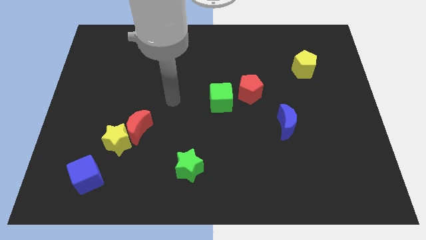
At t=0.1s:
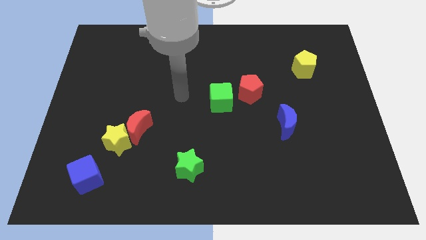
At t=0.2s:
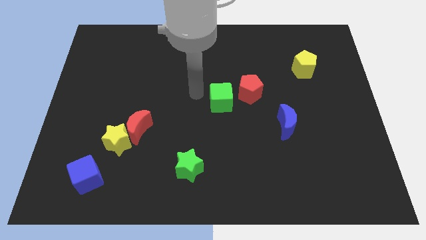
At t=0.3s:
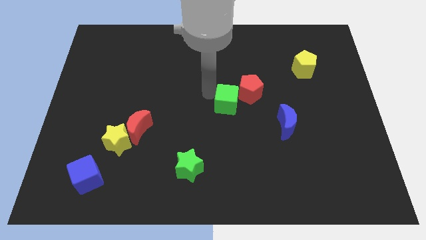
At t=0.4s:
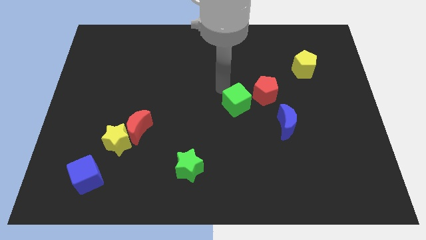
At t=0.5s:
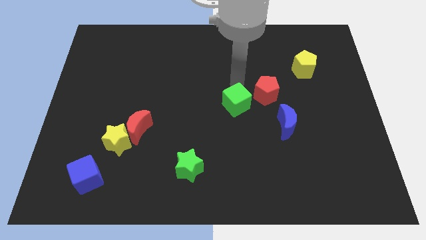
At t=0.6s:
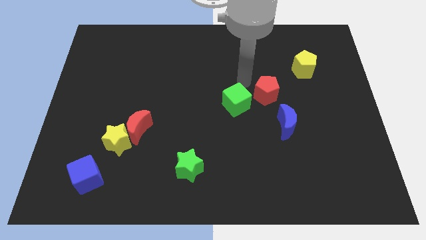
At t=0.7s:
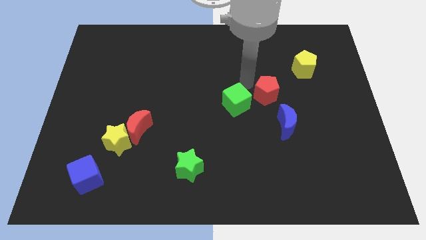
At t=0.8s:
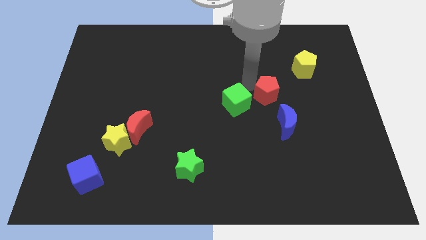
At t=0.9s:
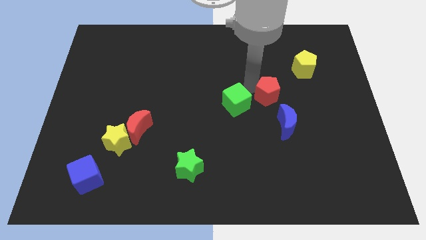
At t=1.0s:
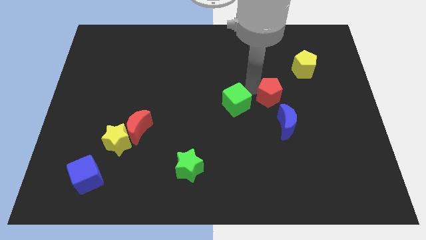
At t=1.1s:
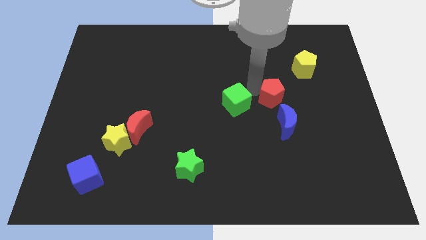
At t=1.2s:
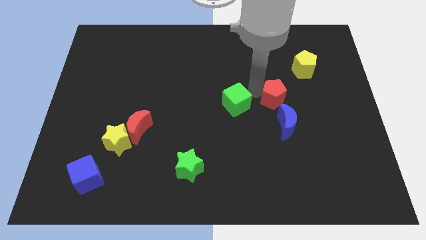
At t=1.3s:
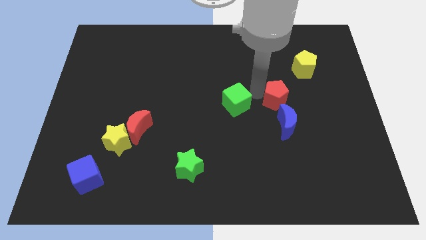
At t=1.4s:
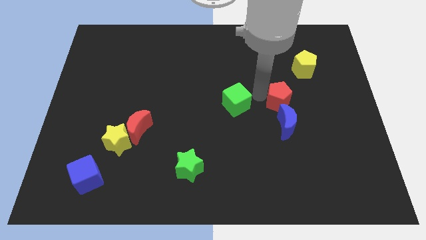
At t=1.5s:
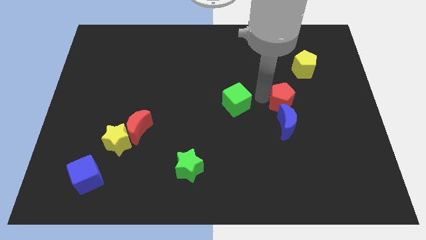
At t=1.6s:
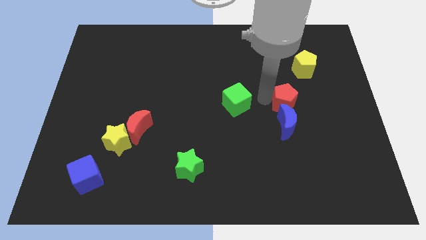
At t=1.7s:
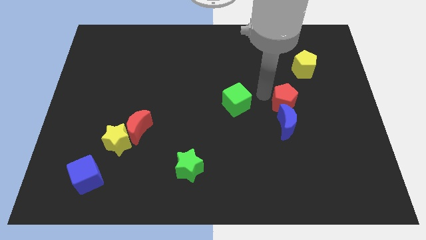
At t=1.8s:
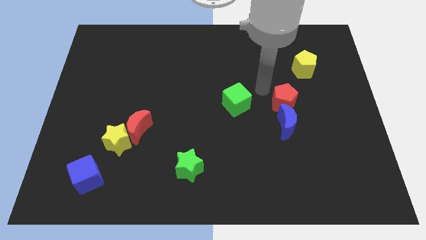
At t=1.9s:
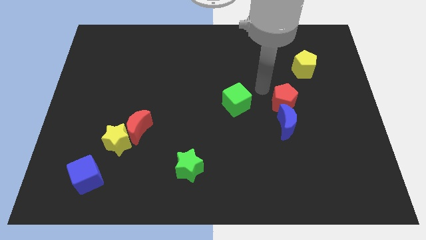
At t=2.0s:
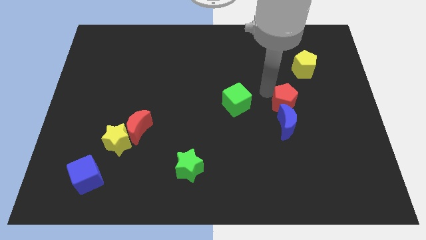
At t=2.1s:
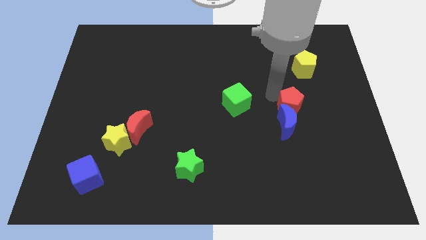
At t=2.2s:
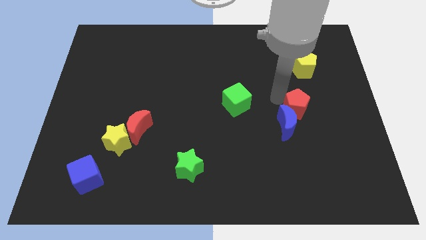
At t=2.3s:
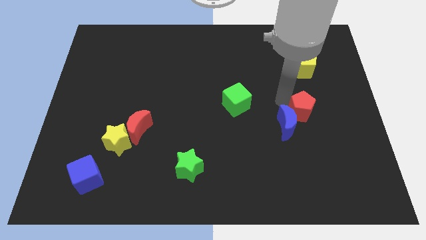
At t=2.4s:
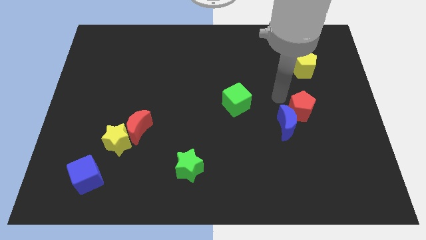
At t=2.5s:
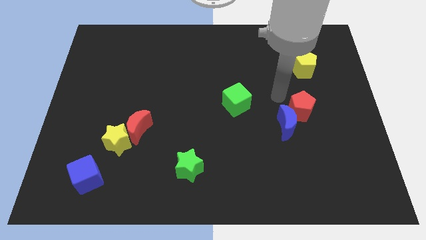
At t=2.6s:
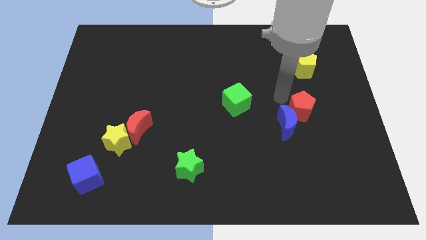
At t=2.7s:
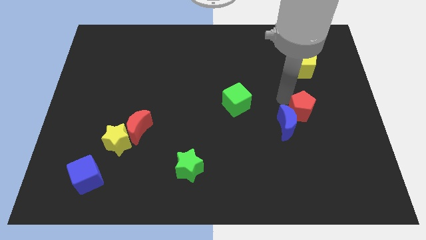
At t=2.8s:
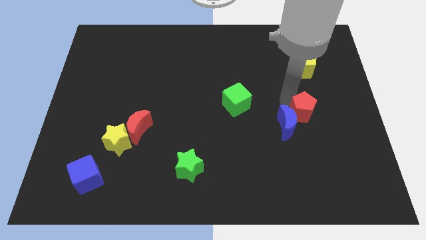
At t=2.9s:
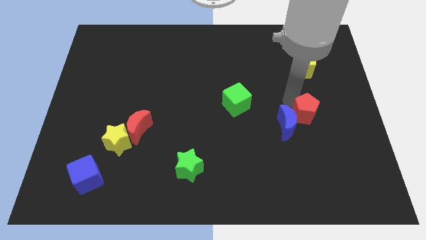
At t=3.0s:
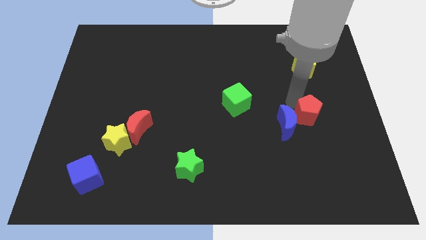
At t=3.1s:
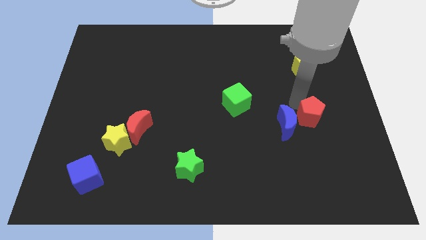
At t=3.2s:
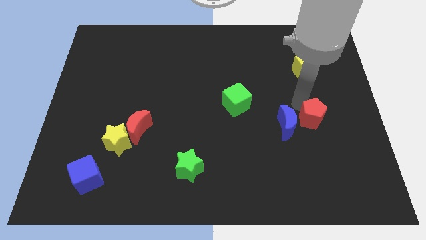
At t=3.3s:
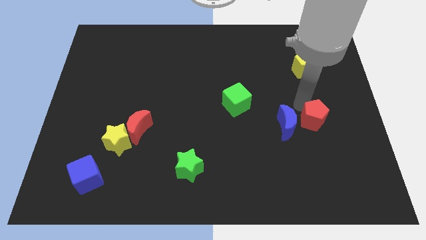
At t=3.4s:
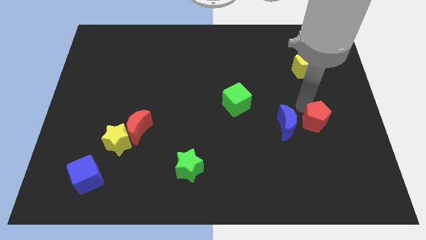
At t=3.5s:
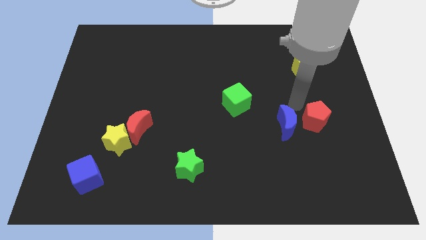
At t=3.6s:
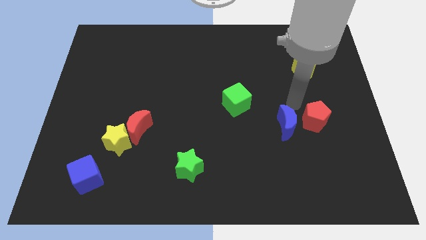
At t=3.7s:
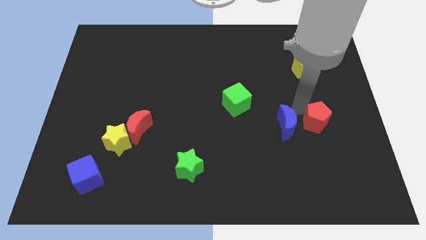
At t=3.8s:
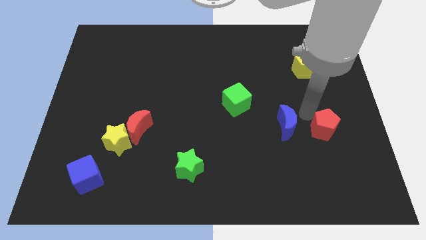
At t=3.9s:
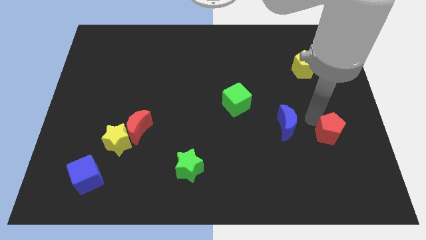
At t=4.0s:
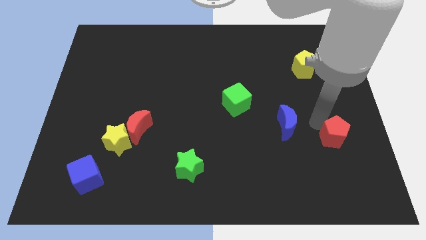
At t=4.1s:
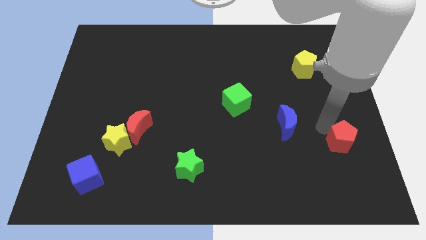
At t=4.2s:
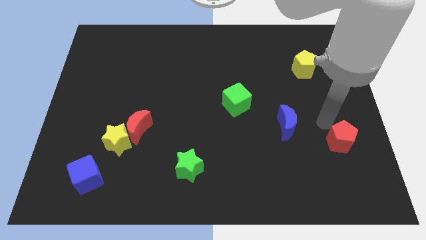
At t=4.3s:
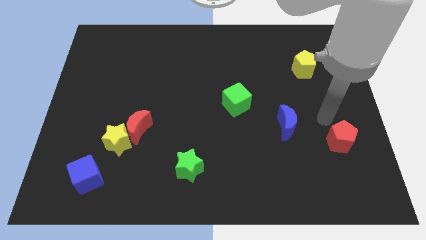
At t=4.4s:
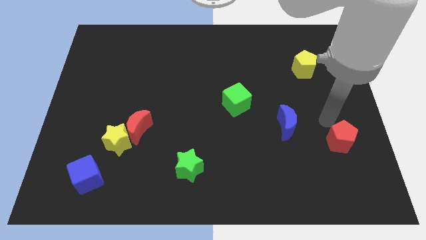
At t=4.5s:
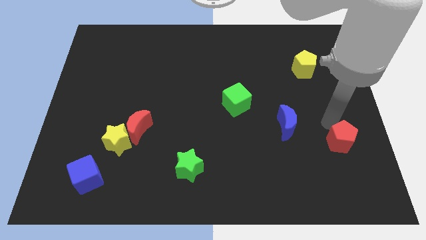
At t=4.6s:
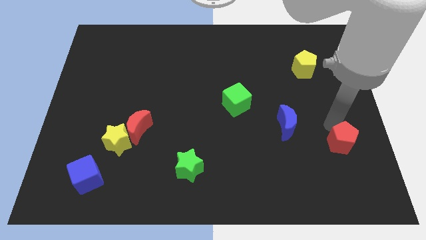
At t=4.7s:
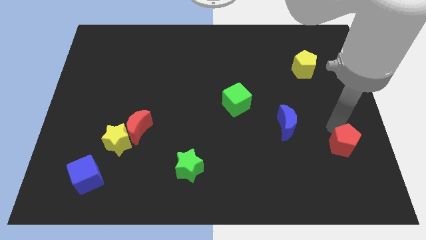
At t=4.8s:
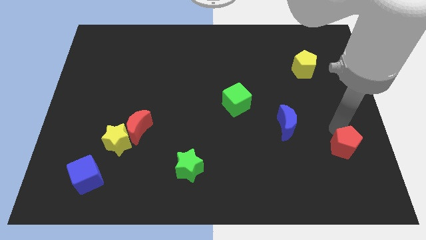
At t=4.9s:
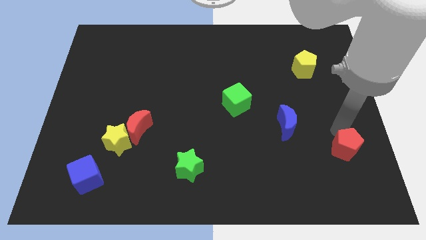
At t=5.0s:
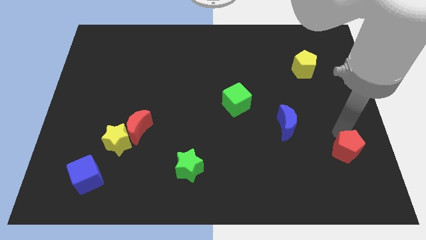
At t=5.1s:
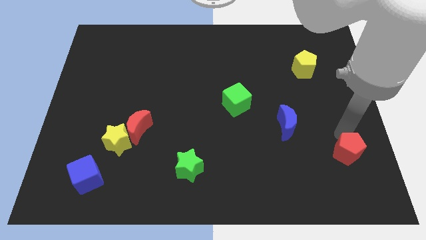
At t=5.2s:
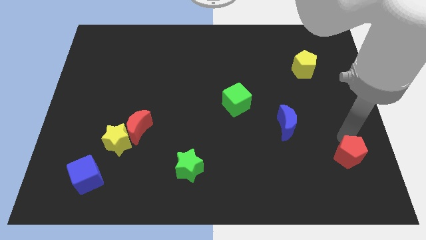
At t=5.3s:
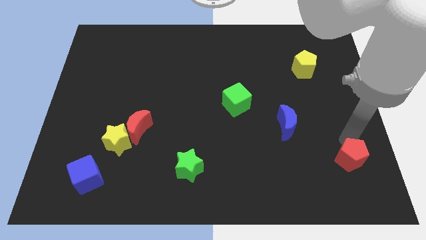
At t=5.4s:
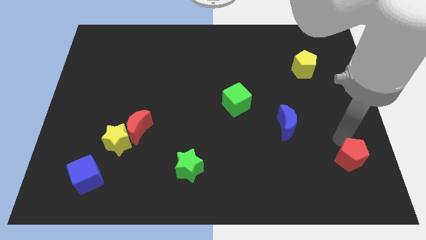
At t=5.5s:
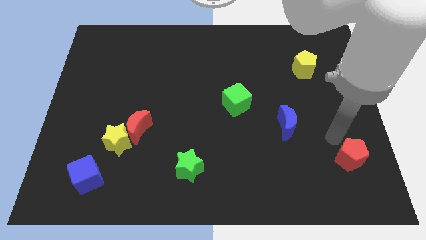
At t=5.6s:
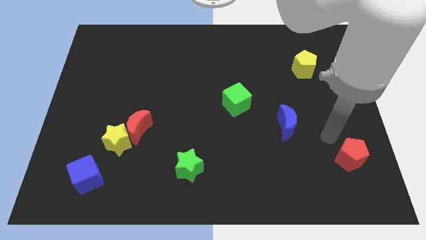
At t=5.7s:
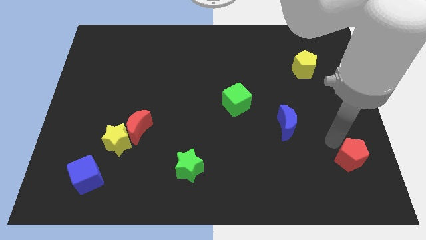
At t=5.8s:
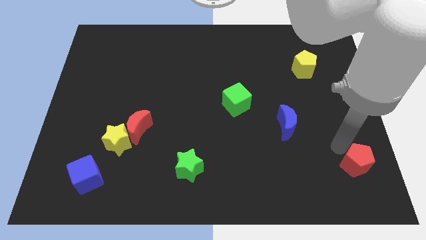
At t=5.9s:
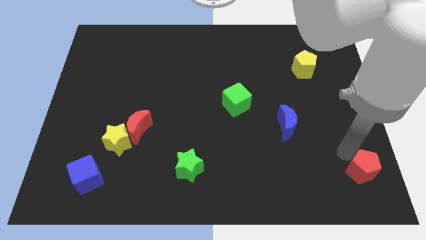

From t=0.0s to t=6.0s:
push the red pentagon to the bottom right corner

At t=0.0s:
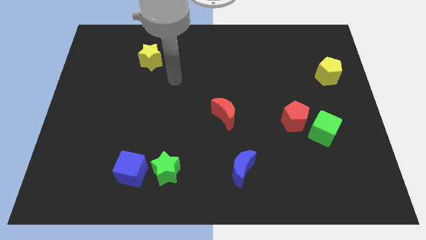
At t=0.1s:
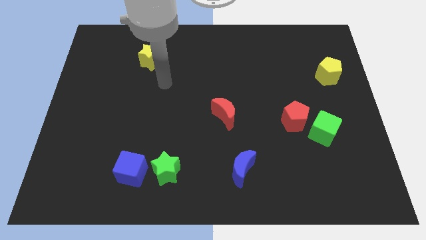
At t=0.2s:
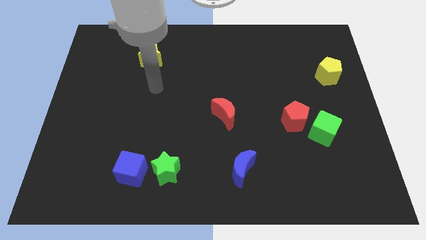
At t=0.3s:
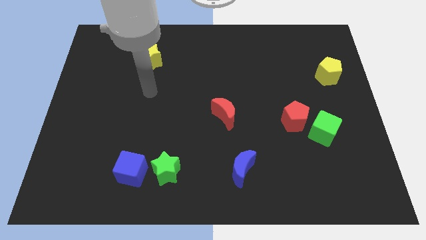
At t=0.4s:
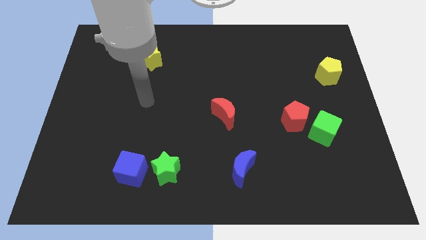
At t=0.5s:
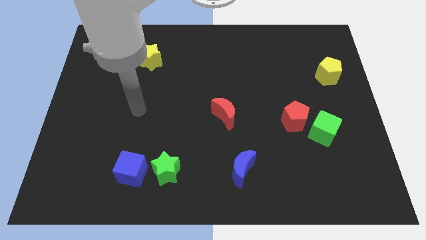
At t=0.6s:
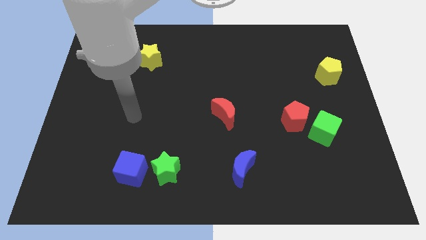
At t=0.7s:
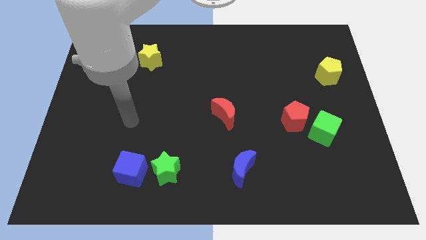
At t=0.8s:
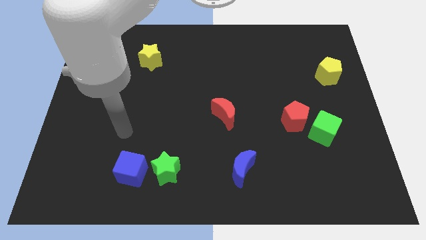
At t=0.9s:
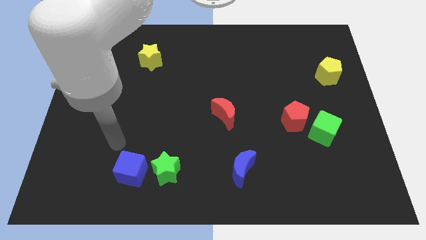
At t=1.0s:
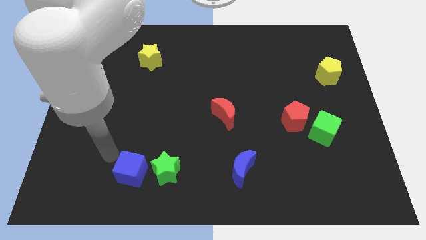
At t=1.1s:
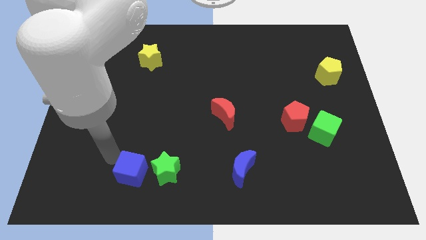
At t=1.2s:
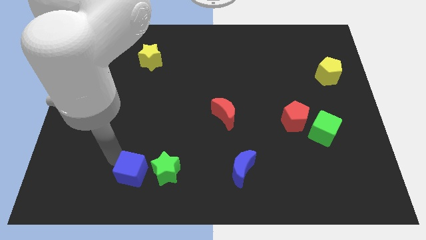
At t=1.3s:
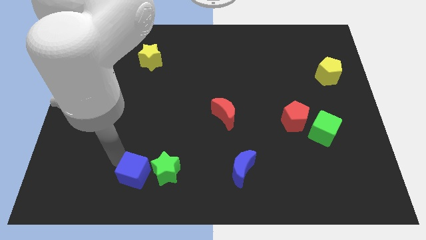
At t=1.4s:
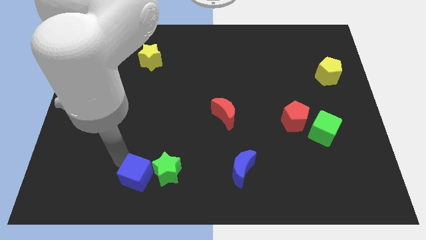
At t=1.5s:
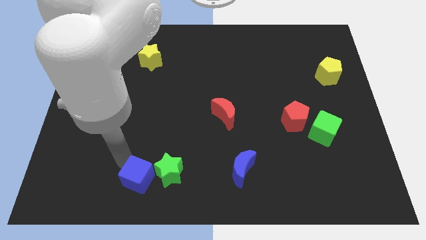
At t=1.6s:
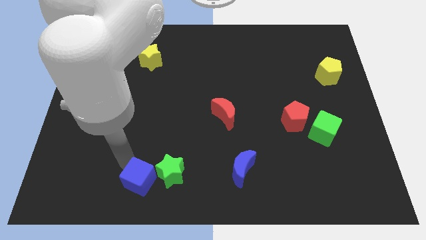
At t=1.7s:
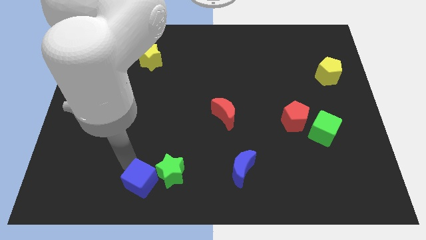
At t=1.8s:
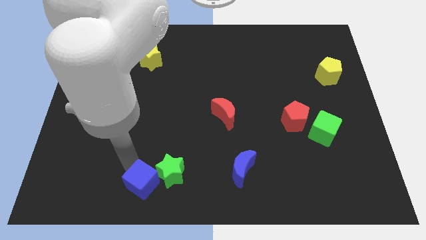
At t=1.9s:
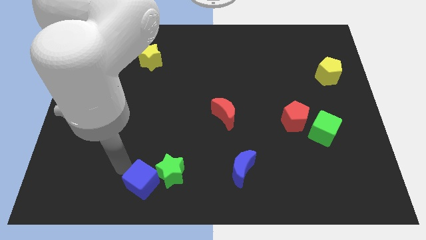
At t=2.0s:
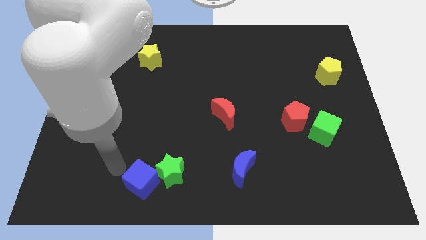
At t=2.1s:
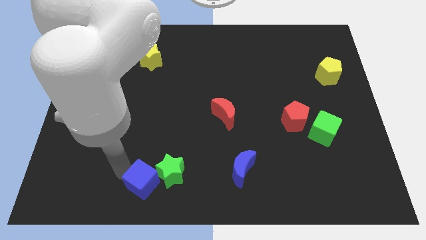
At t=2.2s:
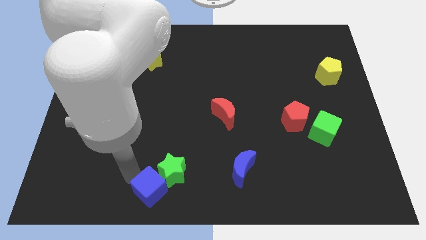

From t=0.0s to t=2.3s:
push the blue cube to the bottom side
